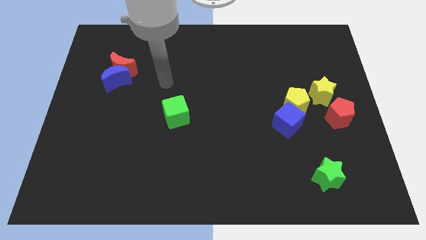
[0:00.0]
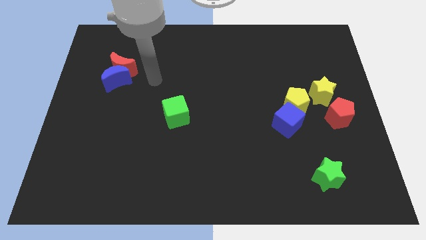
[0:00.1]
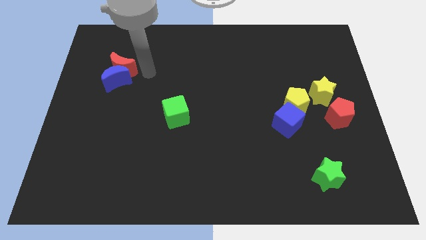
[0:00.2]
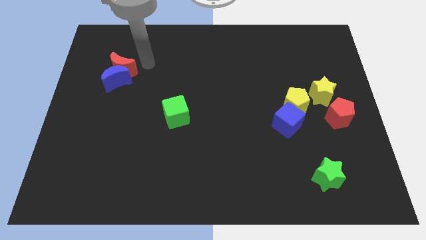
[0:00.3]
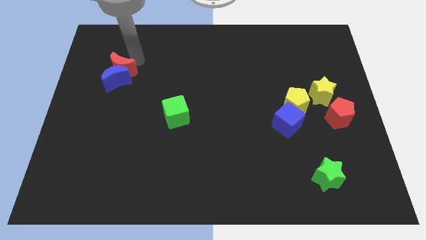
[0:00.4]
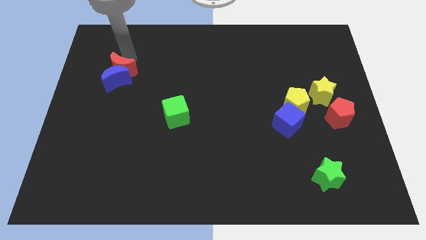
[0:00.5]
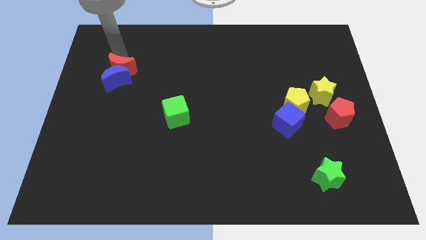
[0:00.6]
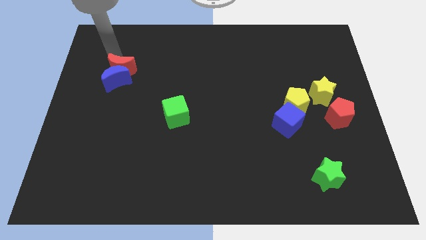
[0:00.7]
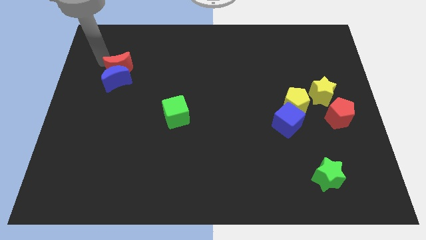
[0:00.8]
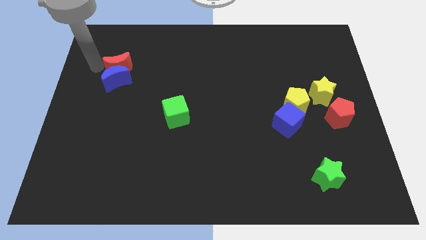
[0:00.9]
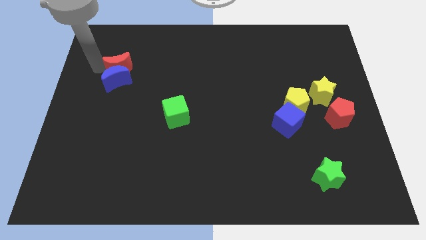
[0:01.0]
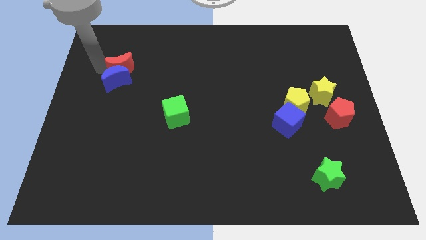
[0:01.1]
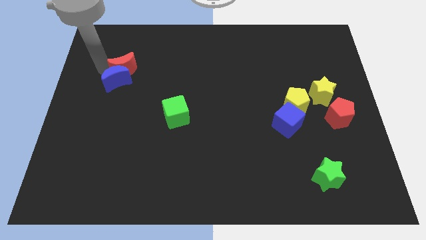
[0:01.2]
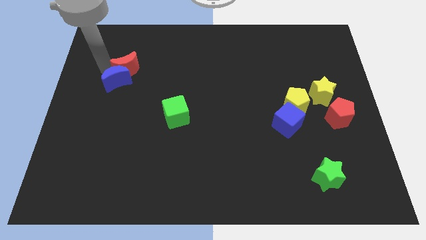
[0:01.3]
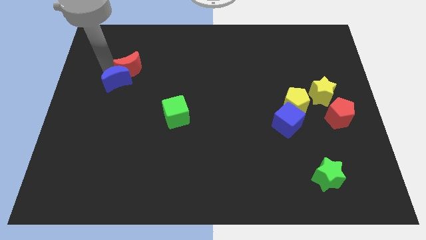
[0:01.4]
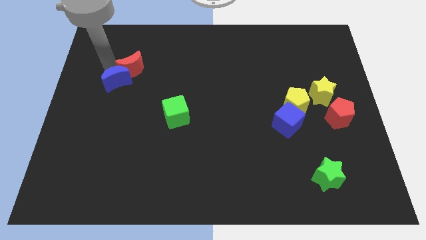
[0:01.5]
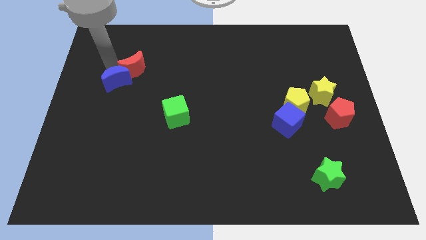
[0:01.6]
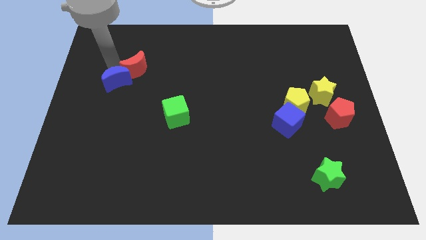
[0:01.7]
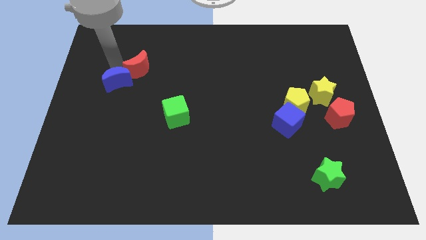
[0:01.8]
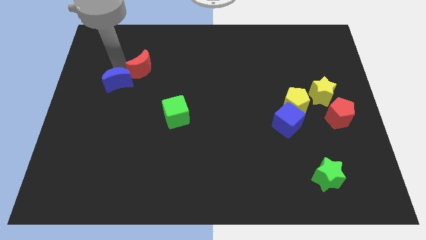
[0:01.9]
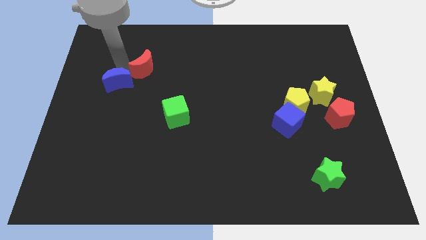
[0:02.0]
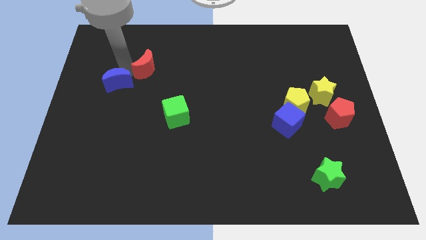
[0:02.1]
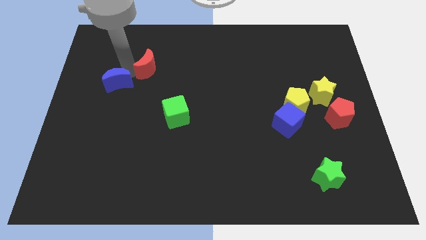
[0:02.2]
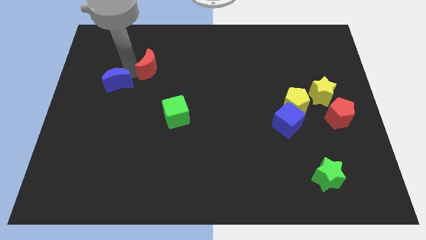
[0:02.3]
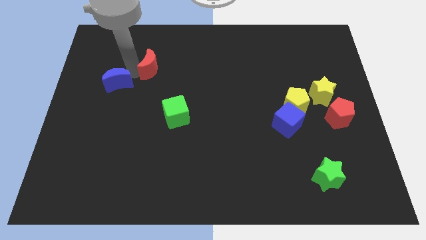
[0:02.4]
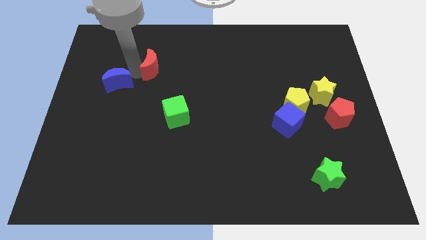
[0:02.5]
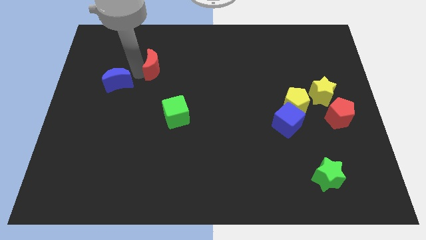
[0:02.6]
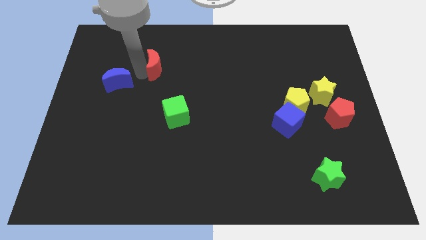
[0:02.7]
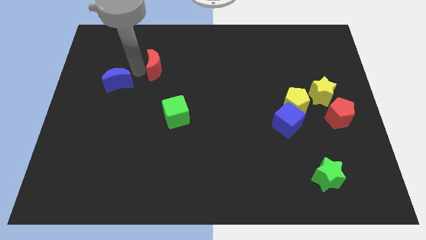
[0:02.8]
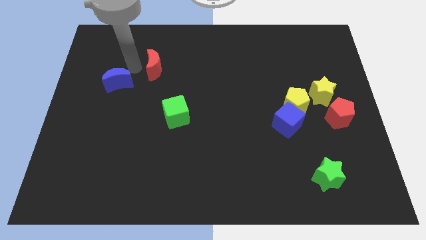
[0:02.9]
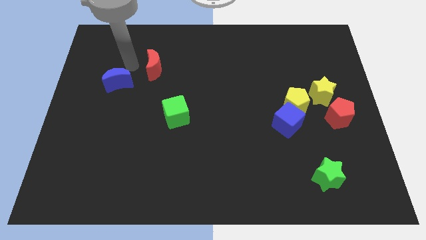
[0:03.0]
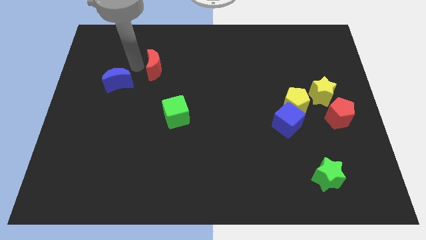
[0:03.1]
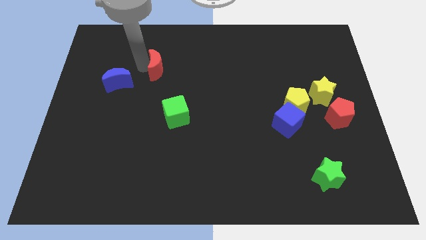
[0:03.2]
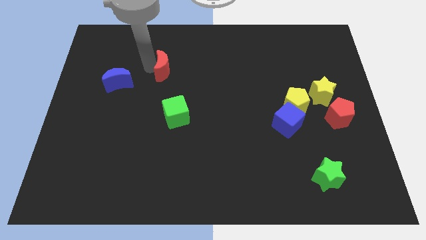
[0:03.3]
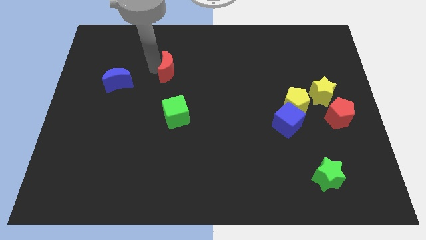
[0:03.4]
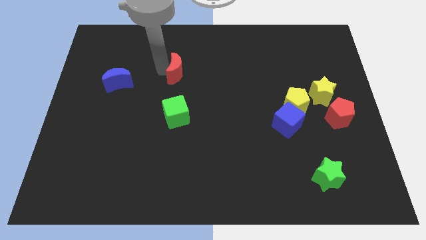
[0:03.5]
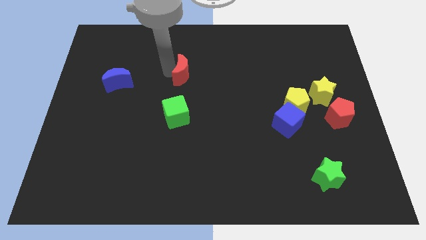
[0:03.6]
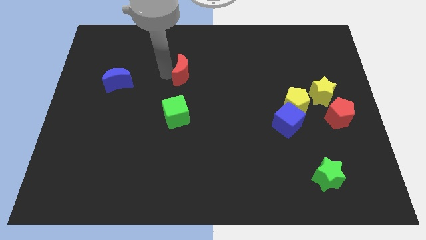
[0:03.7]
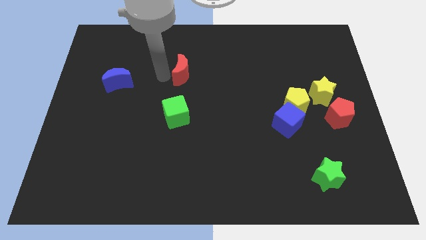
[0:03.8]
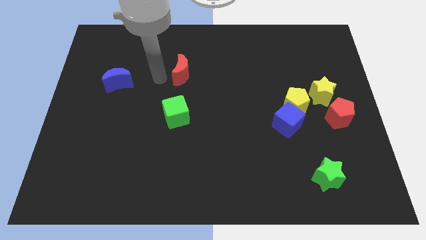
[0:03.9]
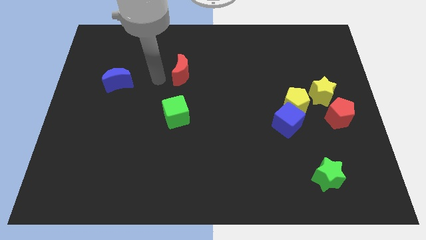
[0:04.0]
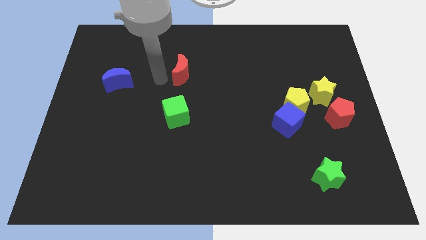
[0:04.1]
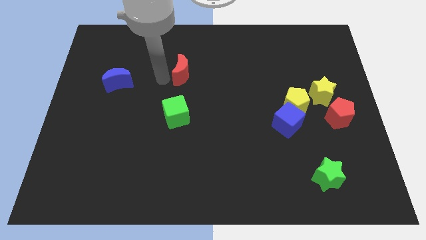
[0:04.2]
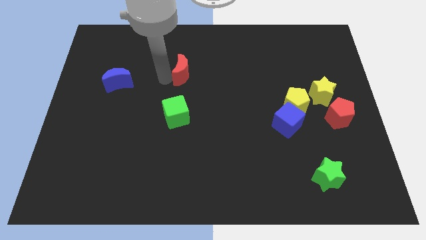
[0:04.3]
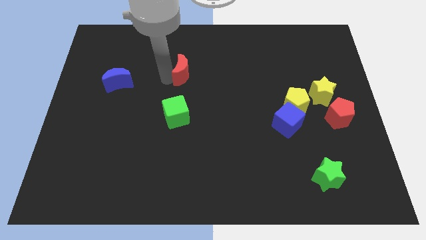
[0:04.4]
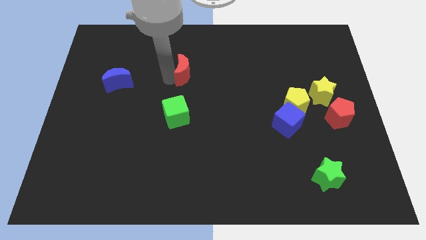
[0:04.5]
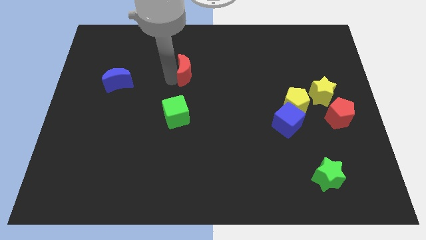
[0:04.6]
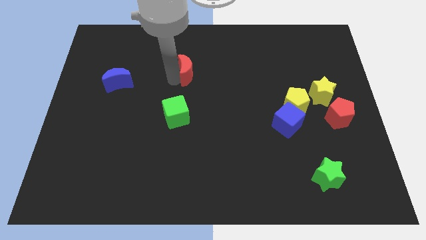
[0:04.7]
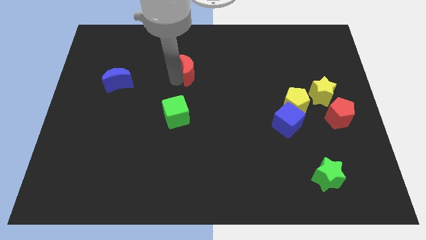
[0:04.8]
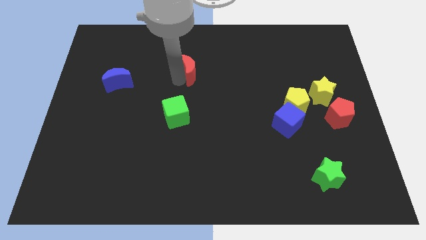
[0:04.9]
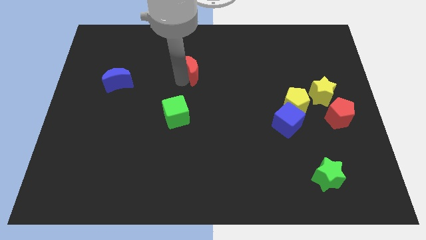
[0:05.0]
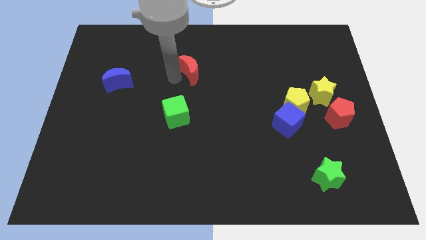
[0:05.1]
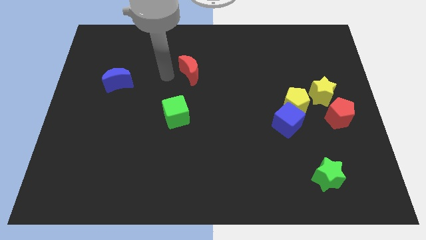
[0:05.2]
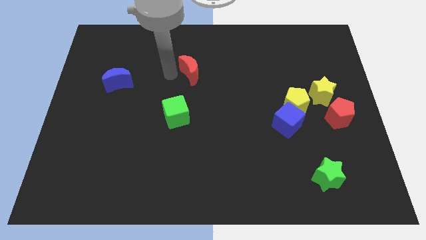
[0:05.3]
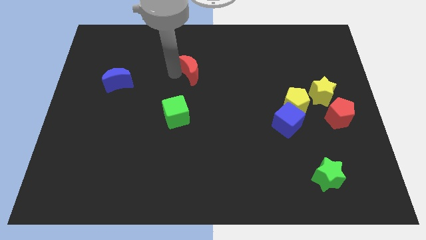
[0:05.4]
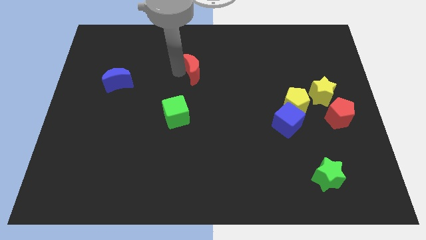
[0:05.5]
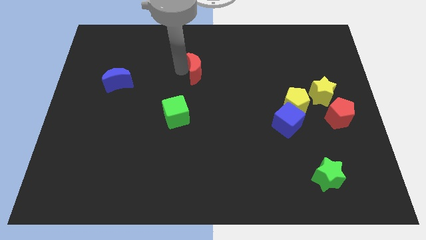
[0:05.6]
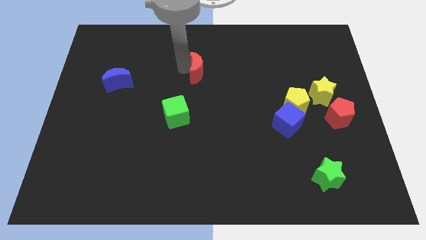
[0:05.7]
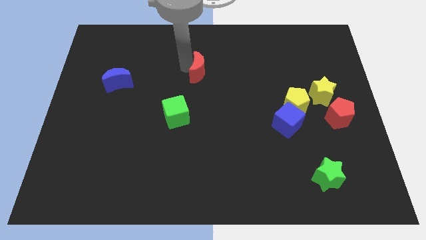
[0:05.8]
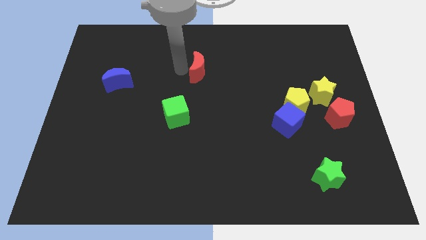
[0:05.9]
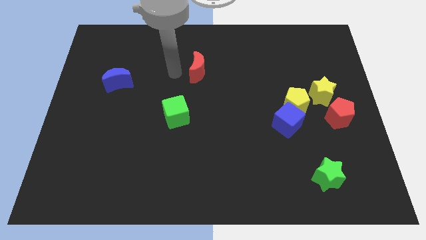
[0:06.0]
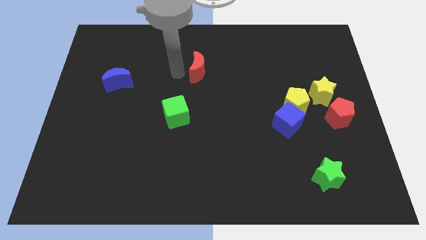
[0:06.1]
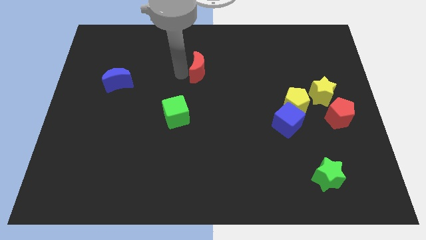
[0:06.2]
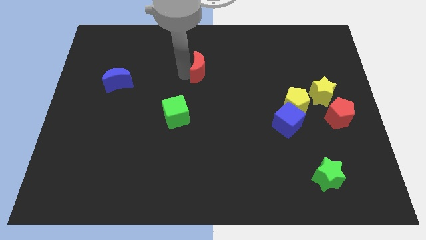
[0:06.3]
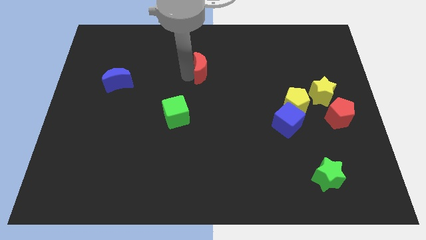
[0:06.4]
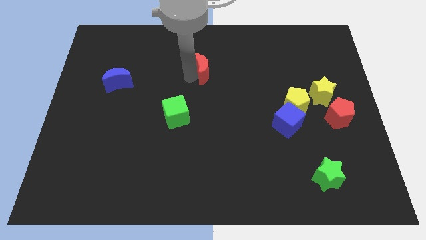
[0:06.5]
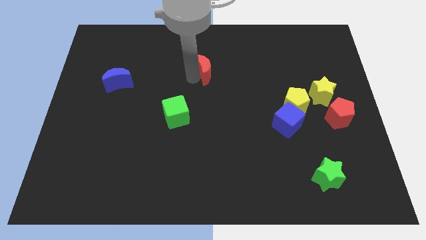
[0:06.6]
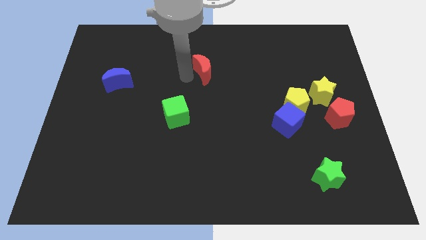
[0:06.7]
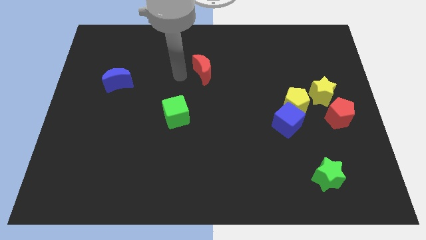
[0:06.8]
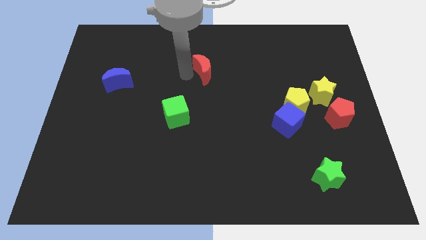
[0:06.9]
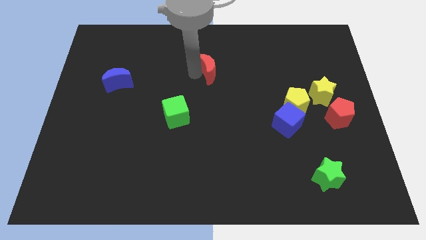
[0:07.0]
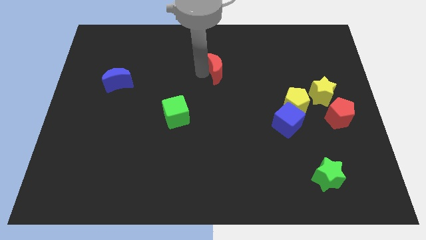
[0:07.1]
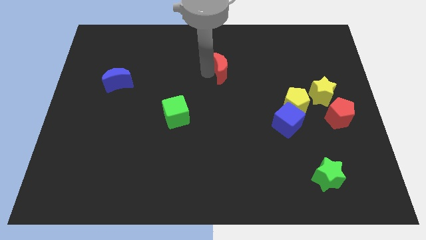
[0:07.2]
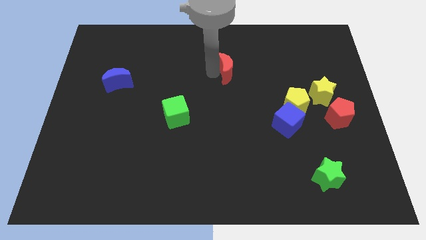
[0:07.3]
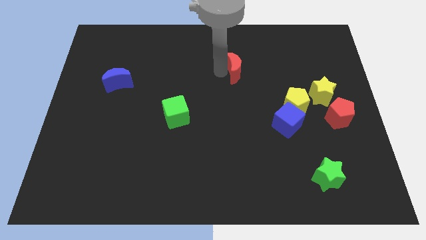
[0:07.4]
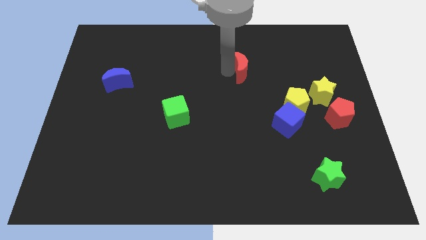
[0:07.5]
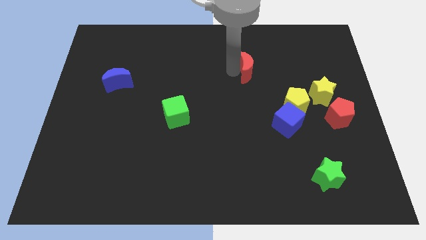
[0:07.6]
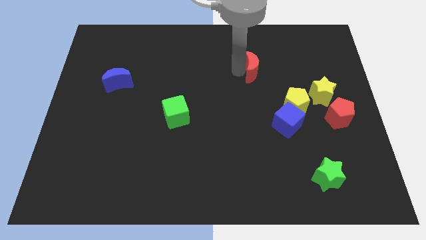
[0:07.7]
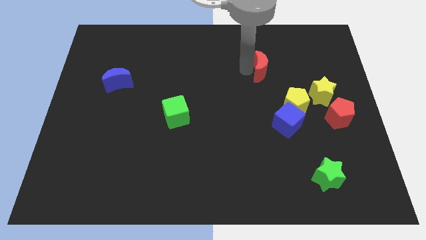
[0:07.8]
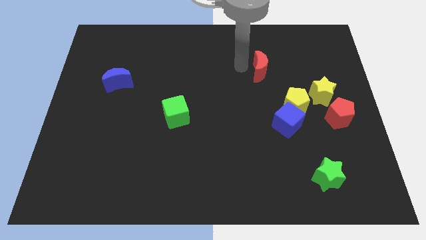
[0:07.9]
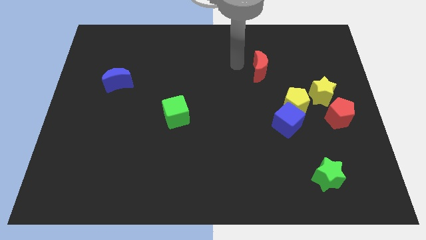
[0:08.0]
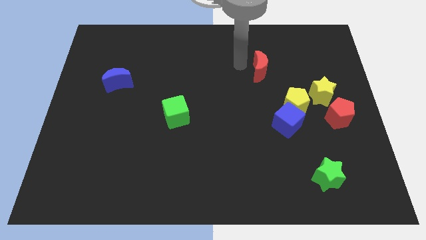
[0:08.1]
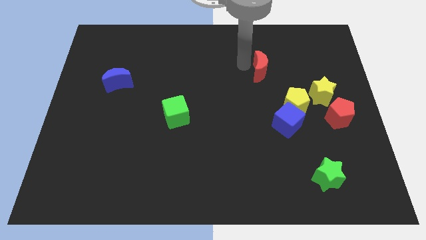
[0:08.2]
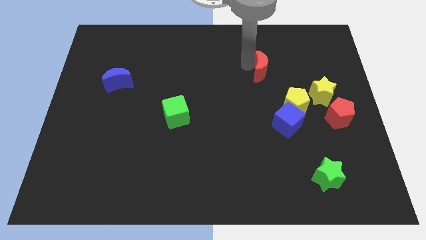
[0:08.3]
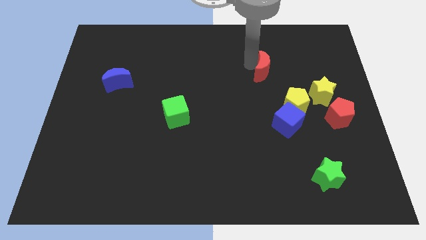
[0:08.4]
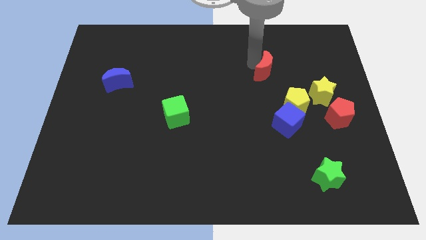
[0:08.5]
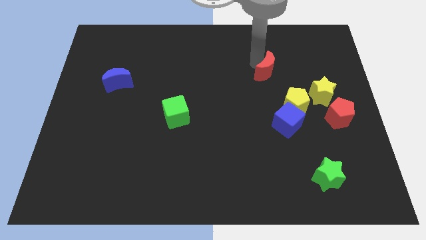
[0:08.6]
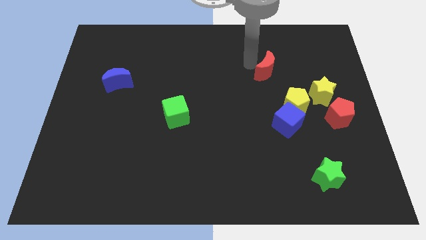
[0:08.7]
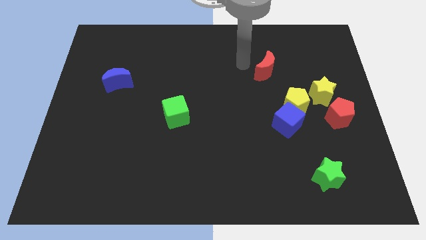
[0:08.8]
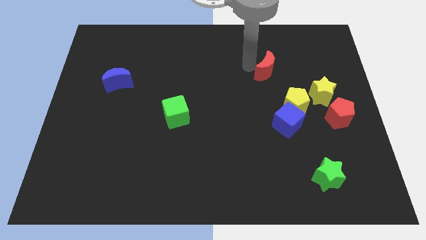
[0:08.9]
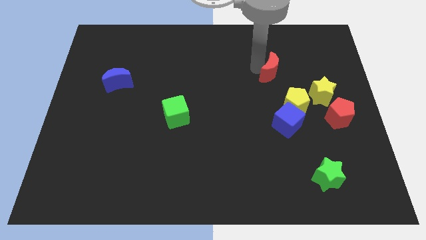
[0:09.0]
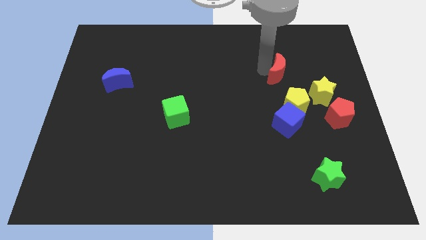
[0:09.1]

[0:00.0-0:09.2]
put the red moon diagonally up and to the left of the yellow star
